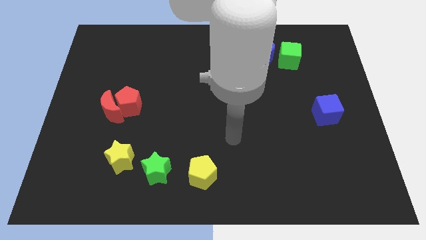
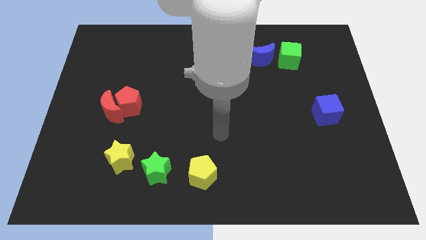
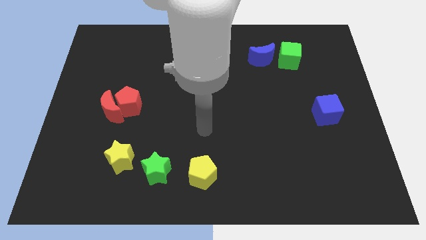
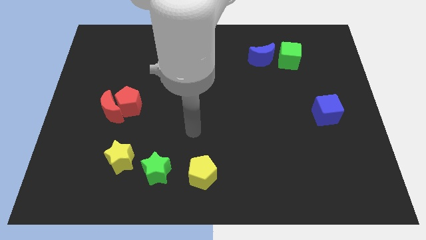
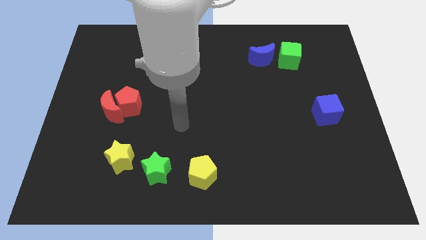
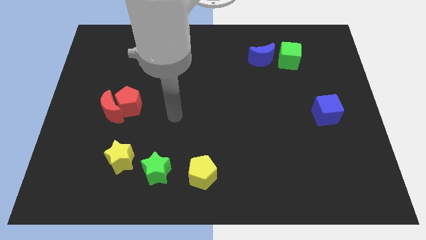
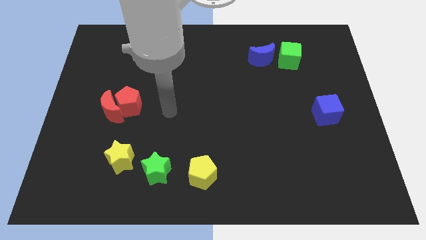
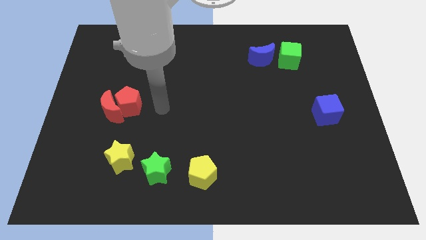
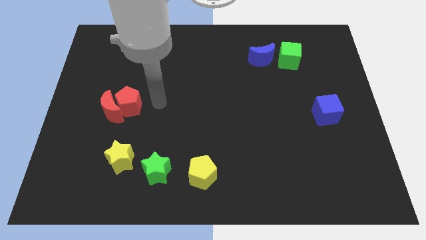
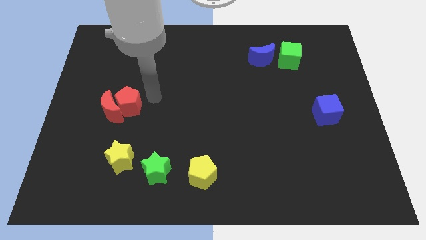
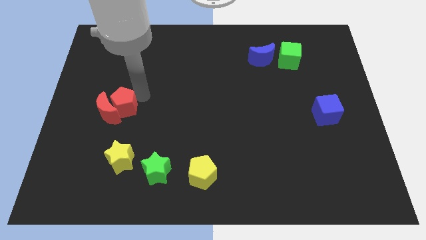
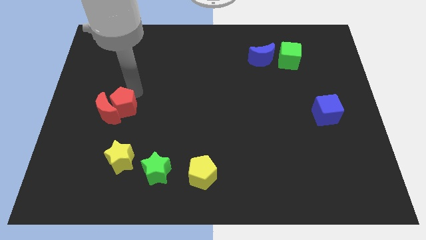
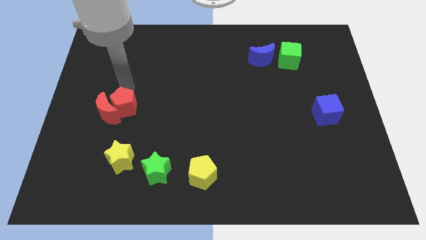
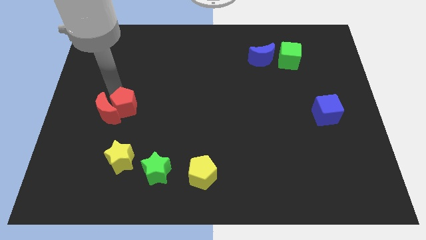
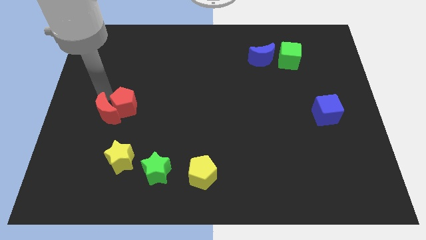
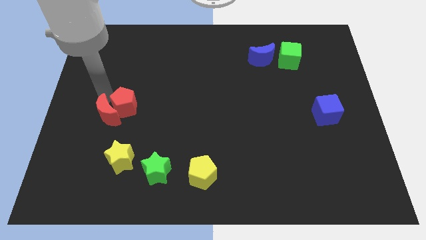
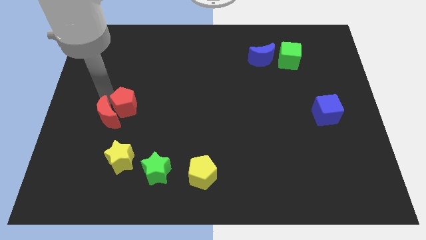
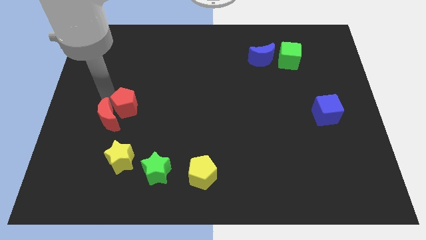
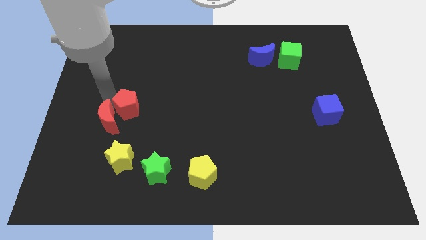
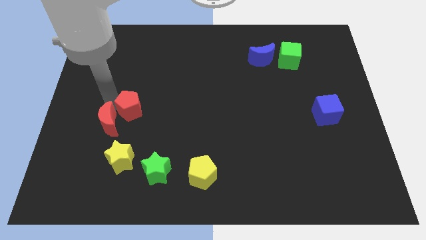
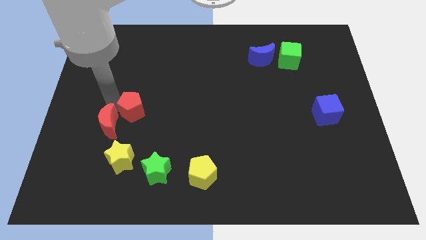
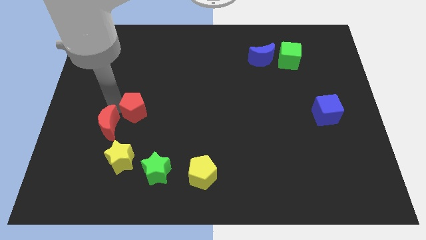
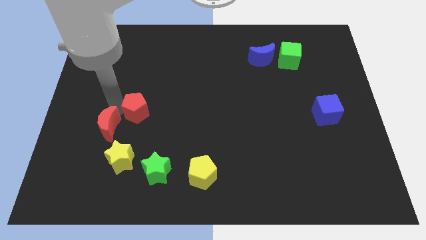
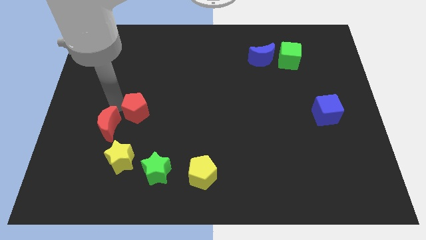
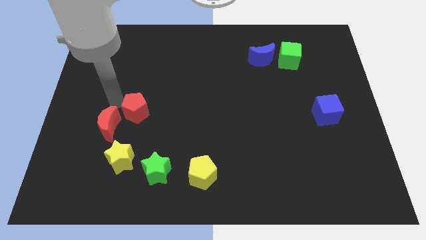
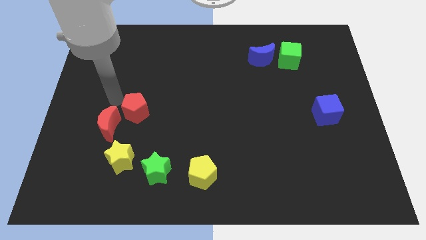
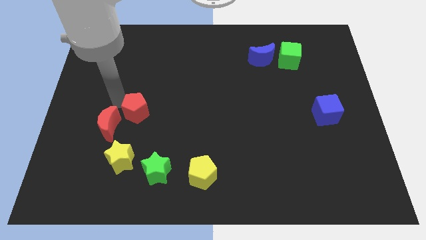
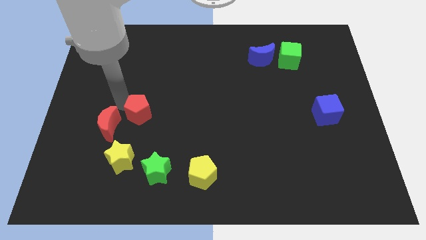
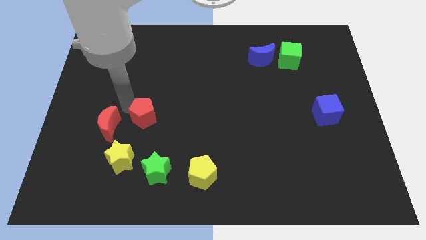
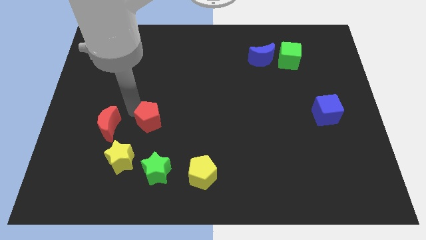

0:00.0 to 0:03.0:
push the red pentagon down and right a bit

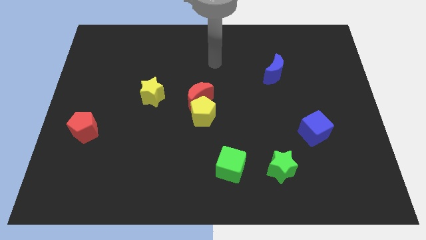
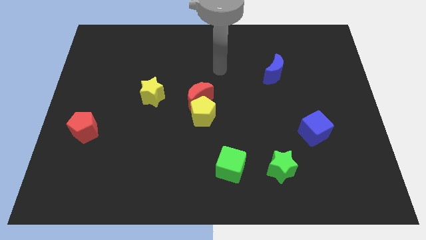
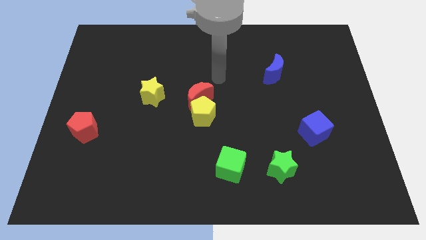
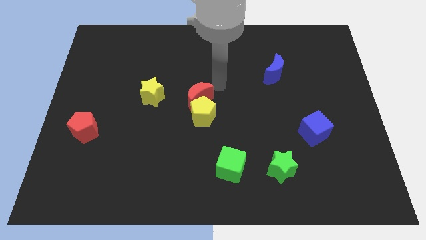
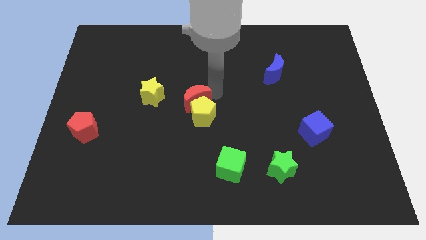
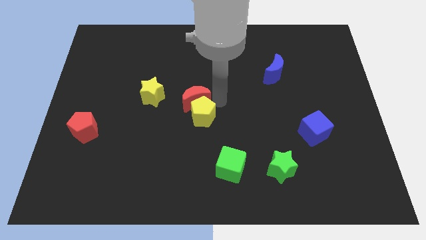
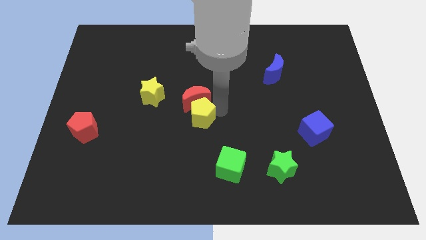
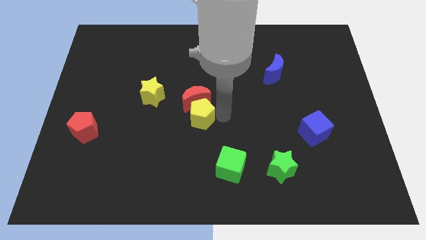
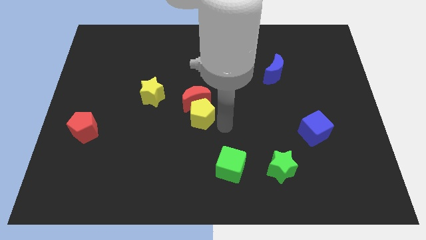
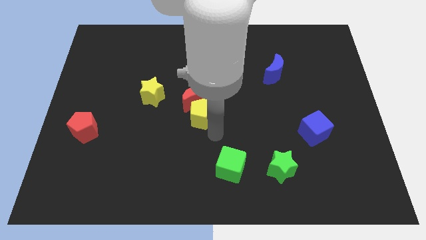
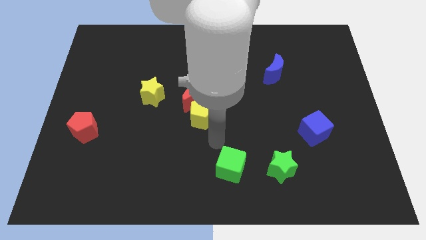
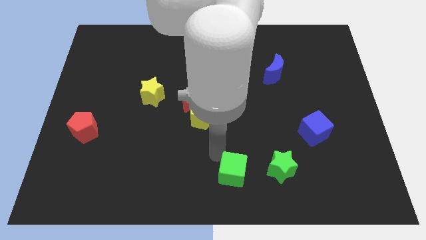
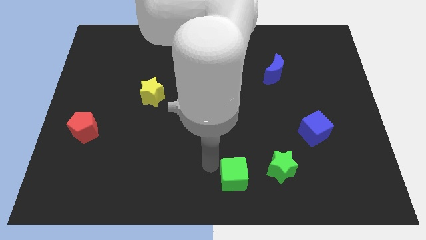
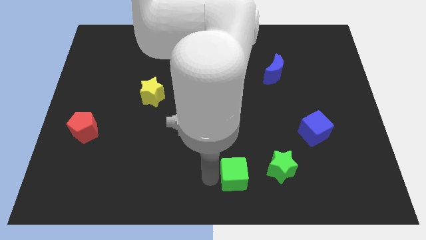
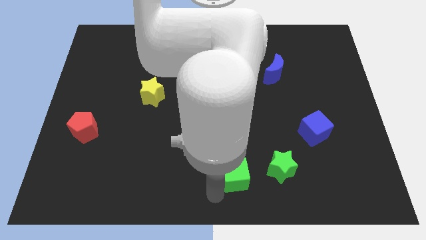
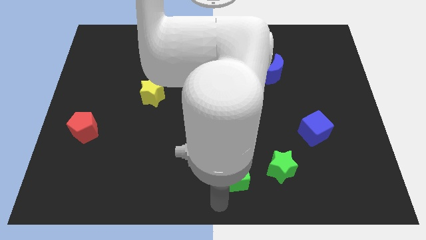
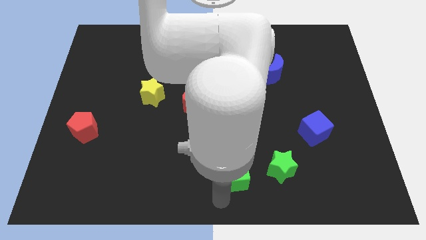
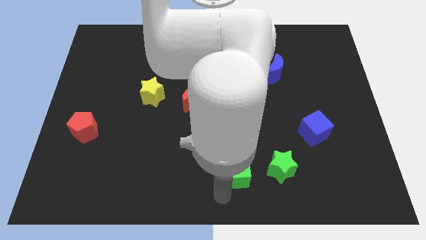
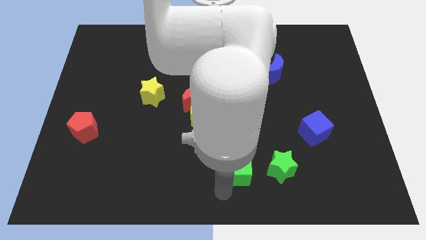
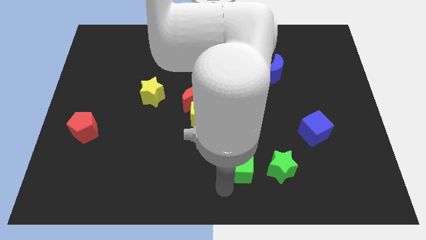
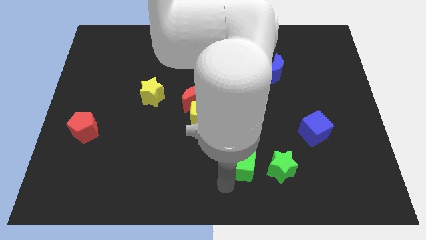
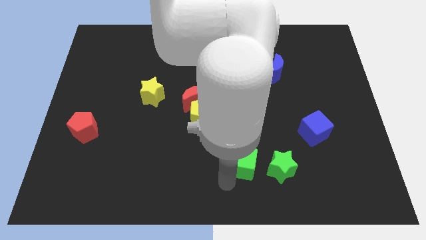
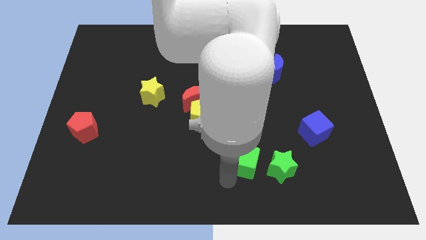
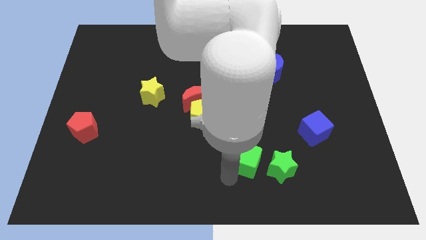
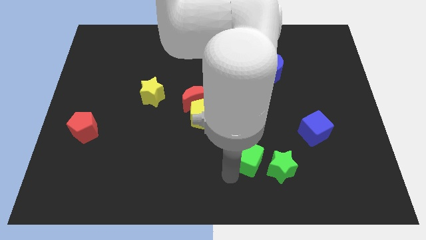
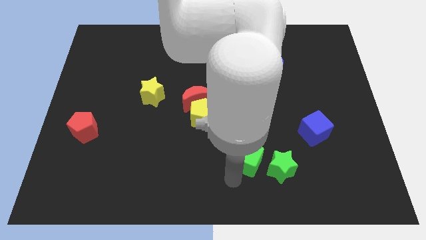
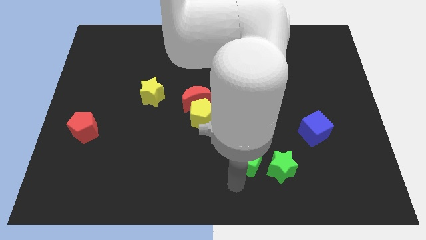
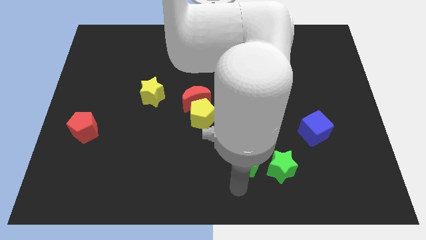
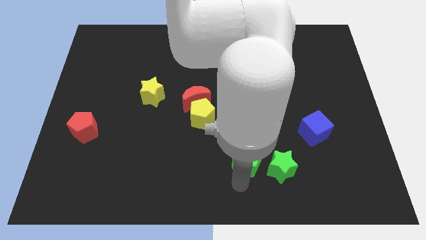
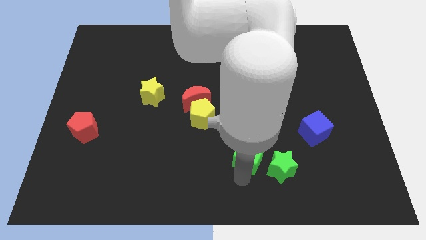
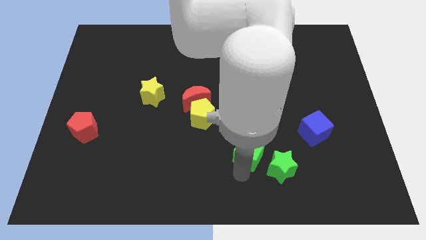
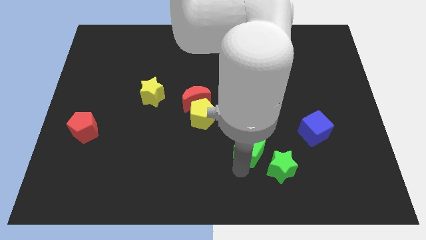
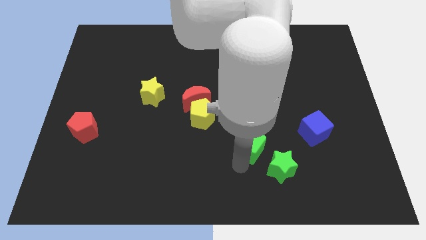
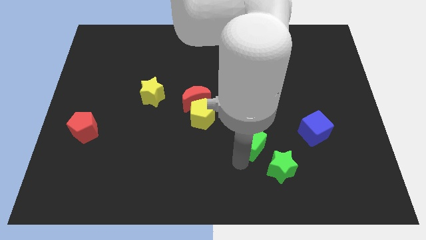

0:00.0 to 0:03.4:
move the green cube upwards and then to the right a little

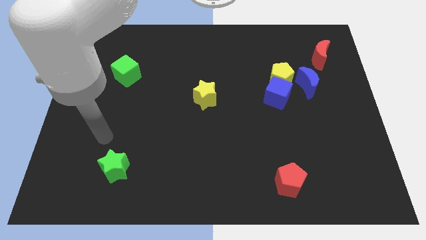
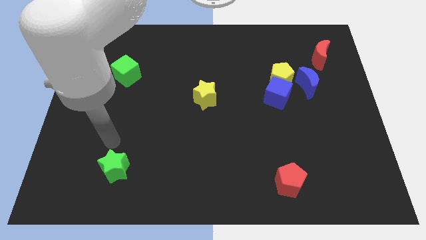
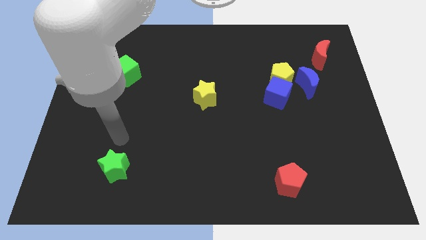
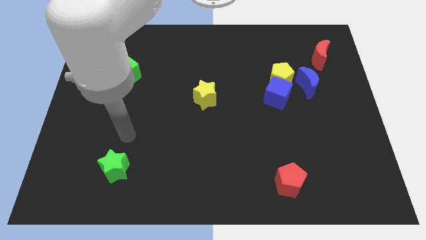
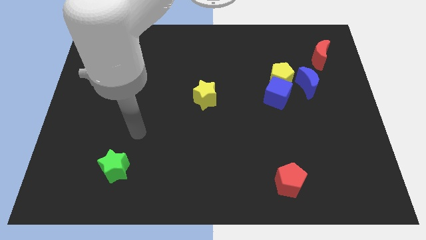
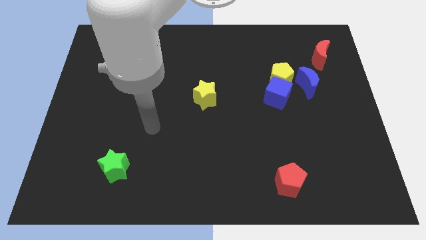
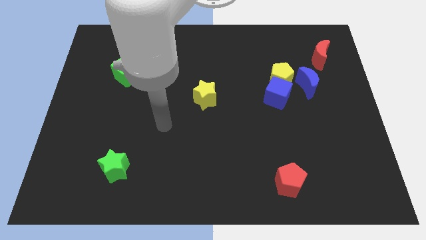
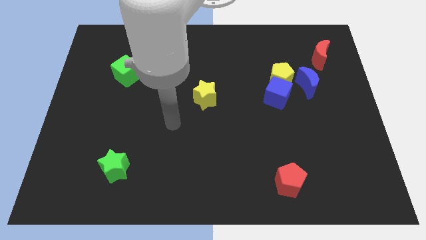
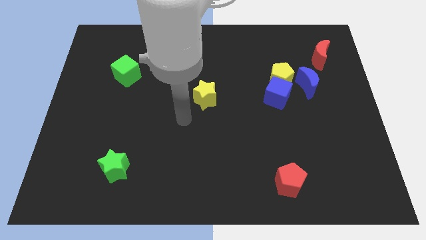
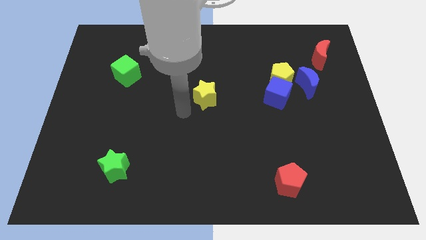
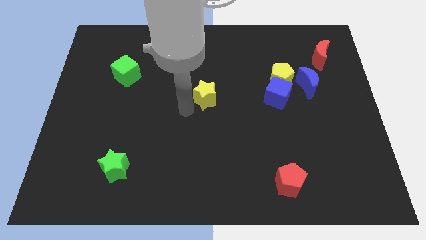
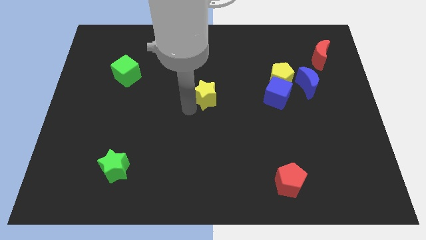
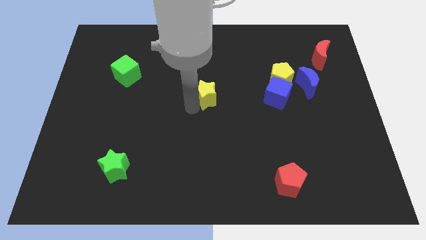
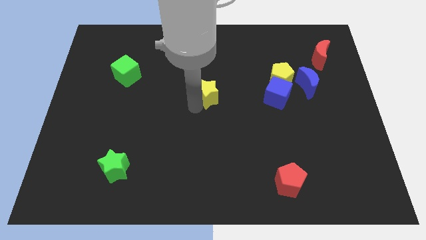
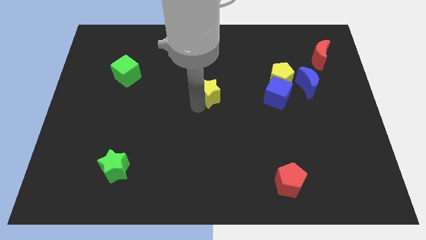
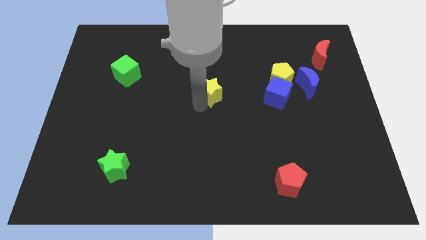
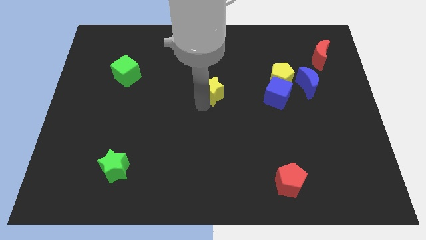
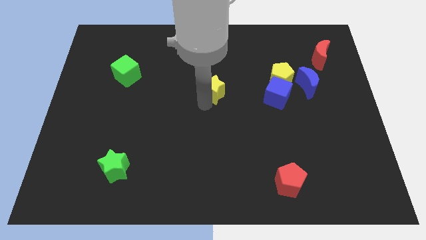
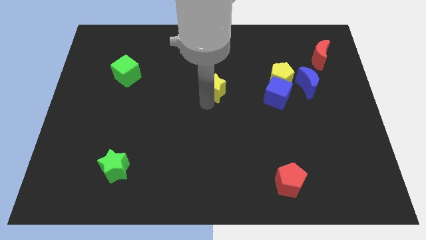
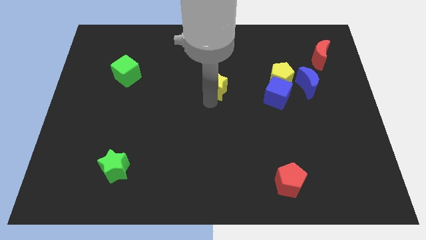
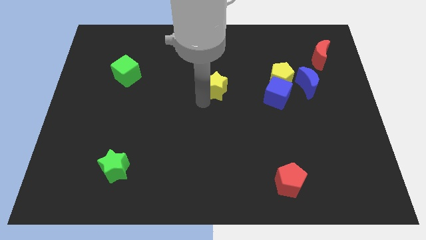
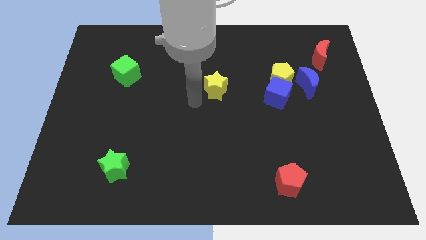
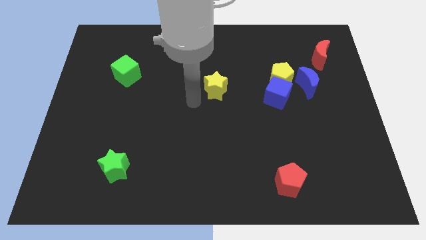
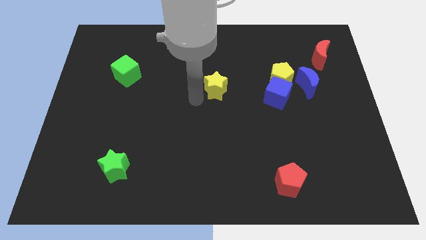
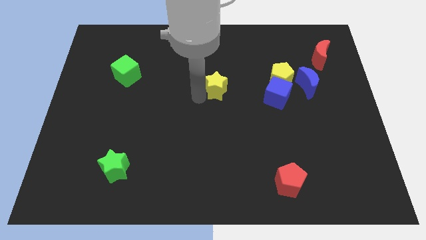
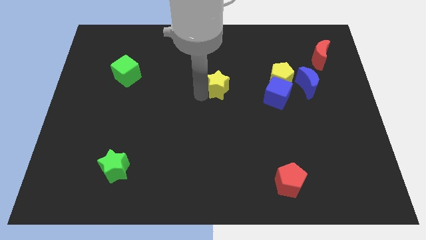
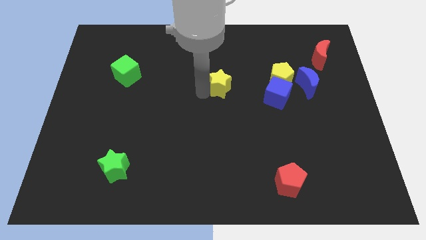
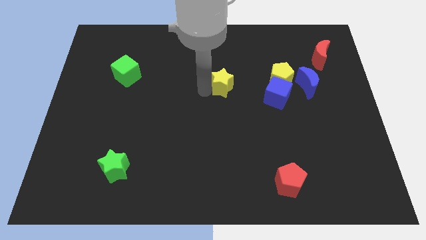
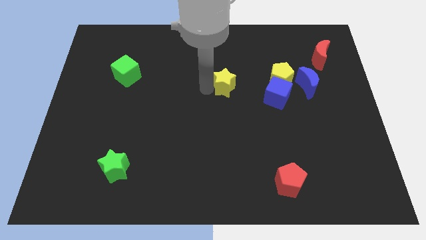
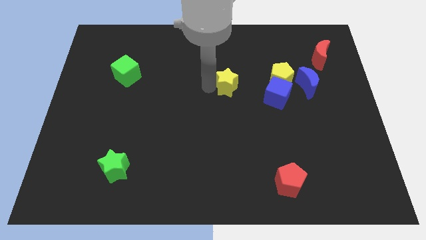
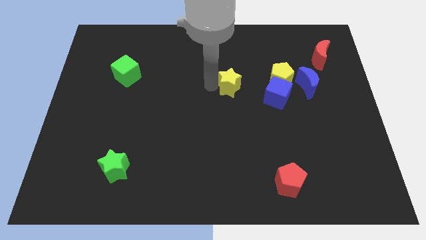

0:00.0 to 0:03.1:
push the yellow star a little diagonally up and to the right
